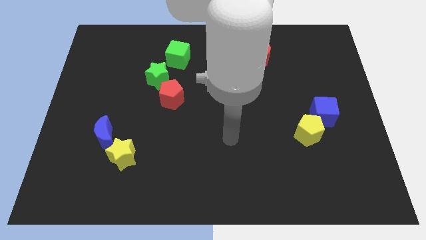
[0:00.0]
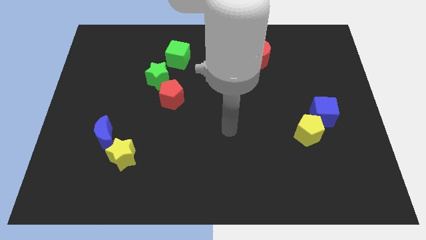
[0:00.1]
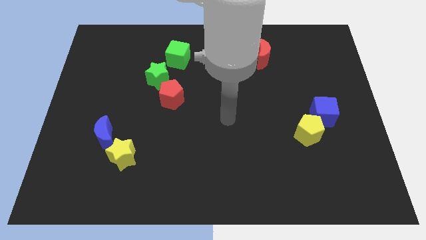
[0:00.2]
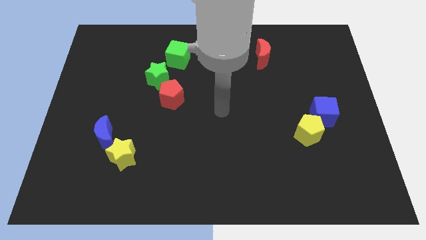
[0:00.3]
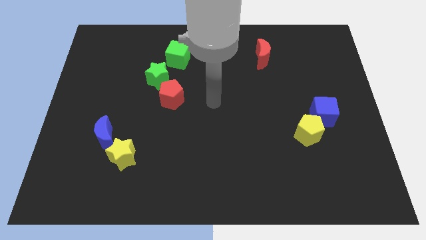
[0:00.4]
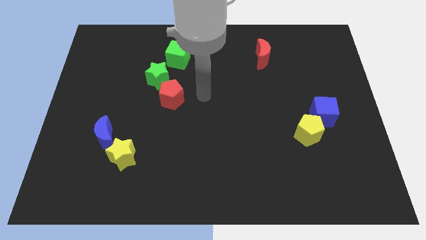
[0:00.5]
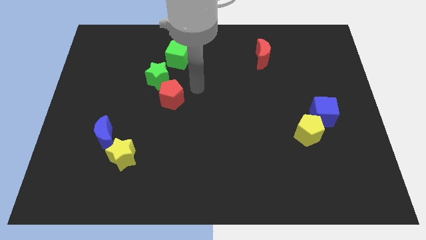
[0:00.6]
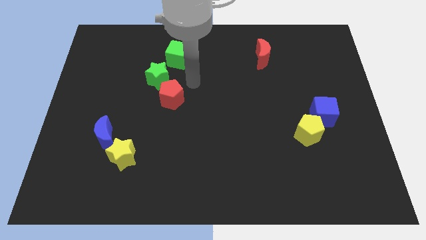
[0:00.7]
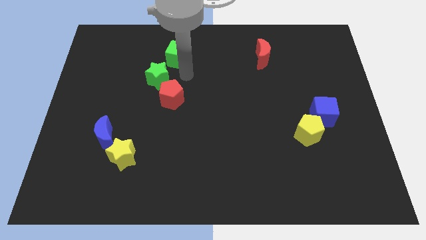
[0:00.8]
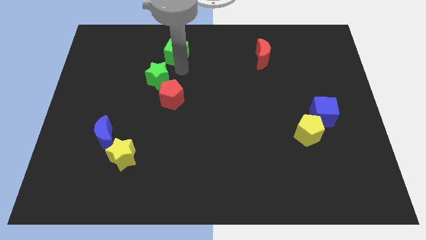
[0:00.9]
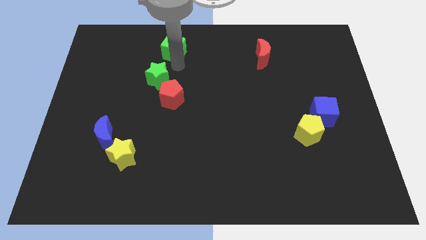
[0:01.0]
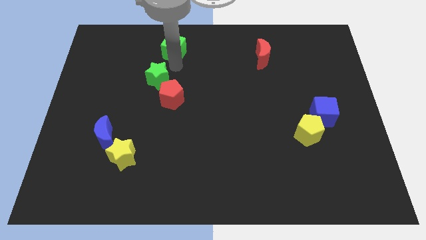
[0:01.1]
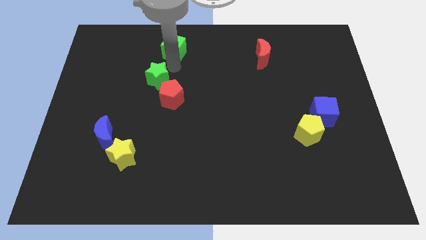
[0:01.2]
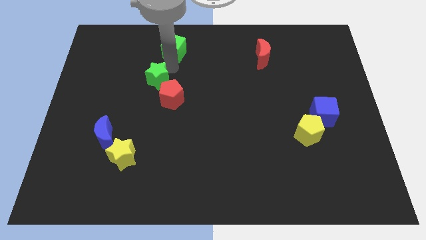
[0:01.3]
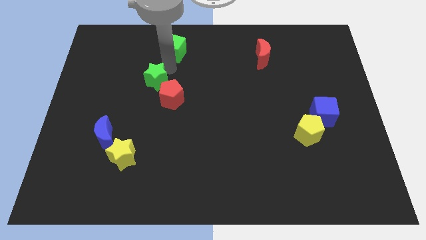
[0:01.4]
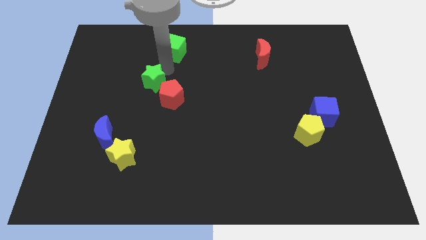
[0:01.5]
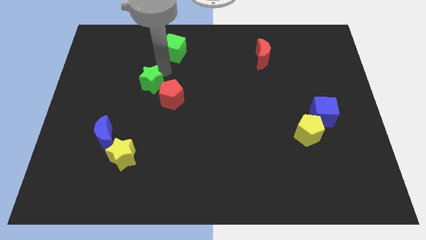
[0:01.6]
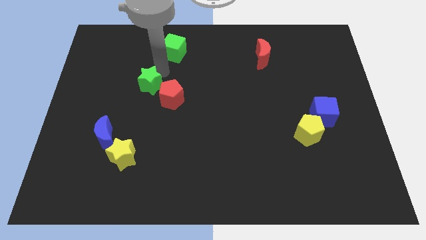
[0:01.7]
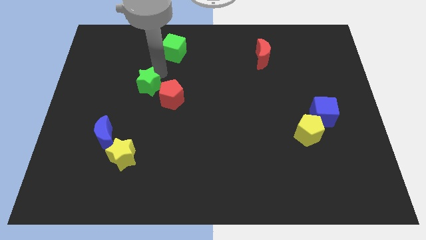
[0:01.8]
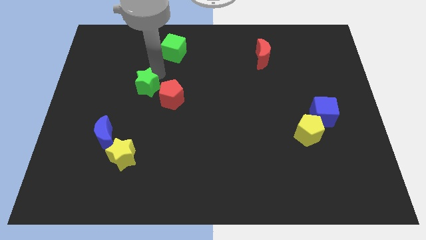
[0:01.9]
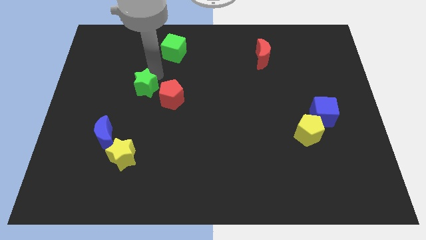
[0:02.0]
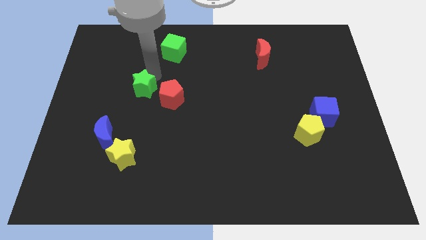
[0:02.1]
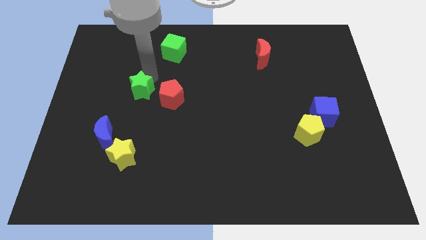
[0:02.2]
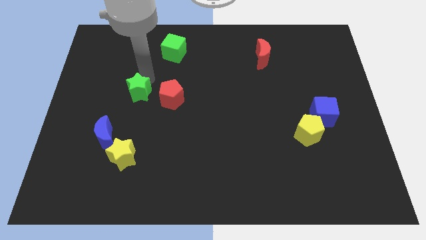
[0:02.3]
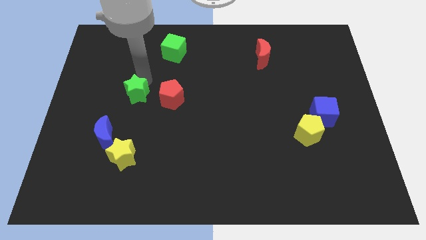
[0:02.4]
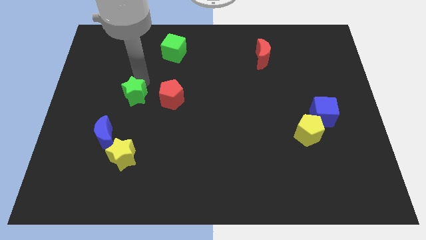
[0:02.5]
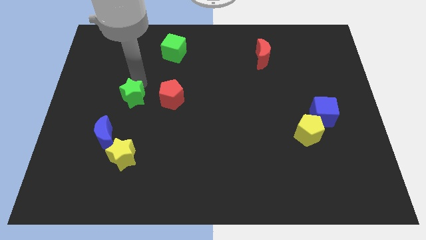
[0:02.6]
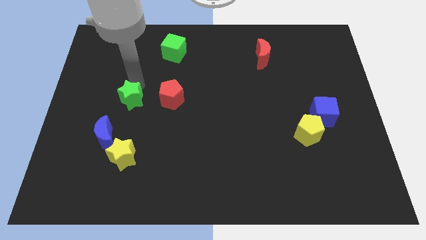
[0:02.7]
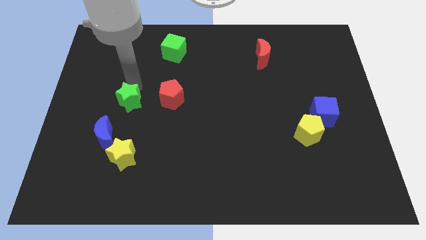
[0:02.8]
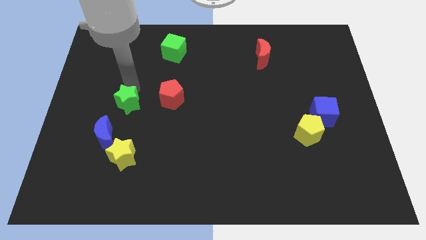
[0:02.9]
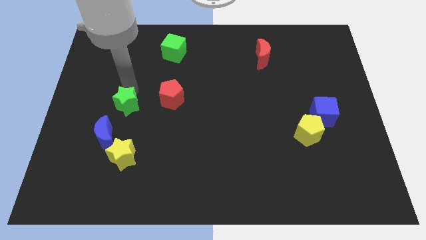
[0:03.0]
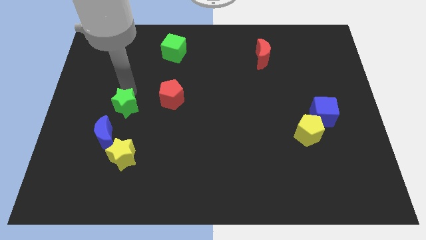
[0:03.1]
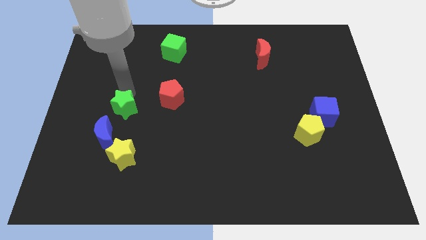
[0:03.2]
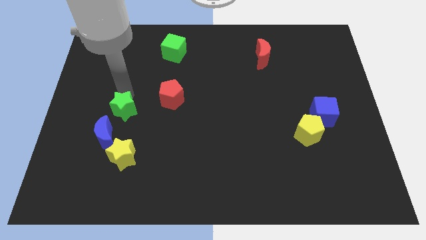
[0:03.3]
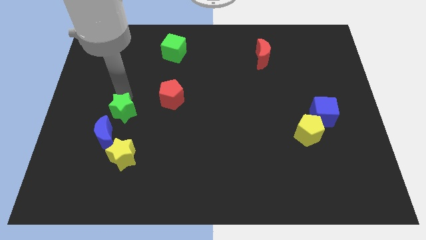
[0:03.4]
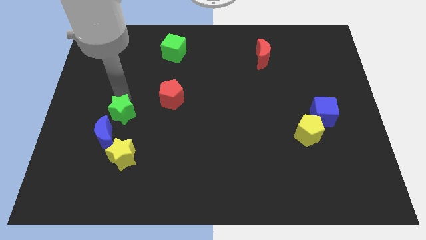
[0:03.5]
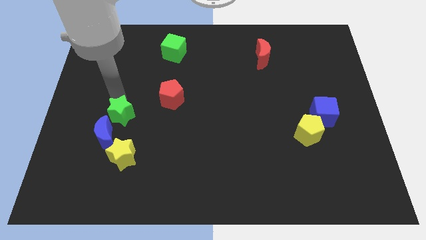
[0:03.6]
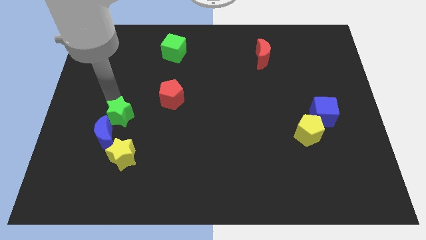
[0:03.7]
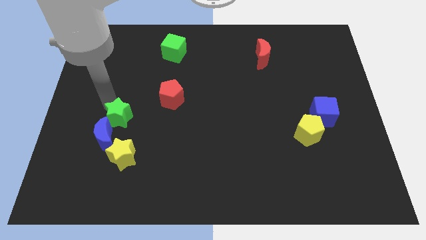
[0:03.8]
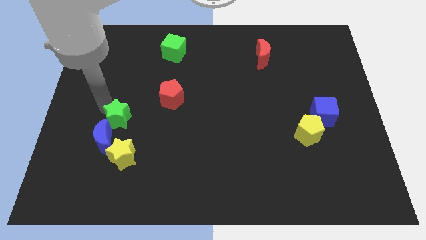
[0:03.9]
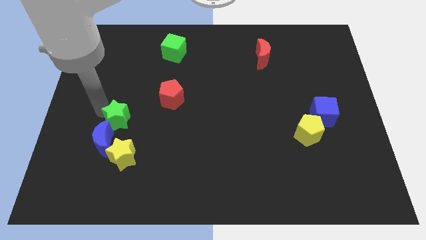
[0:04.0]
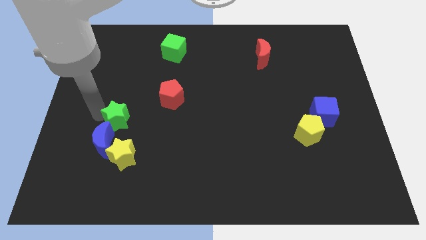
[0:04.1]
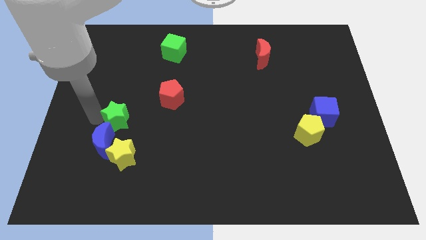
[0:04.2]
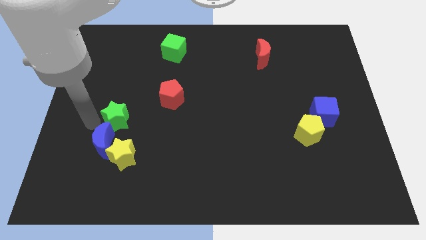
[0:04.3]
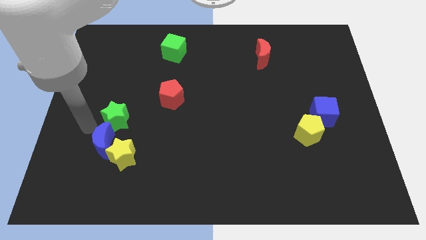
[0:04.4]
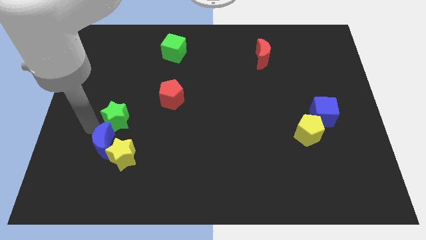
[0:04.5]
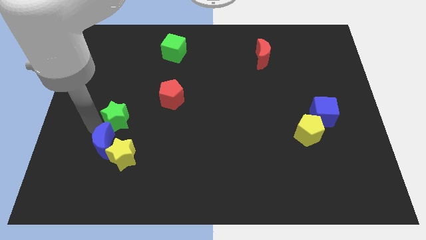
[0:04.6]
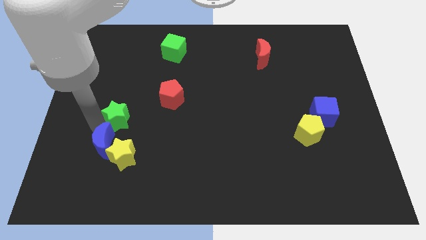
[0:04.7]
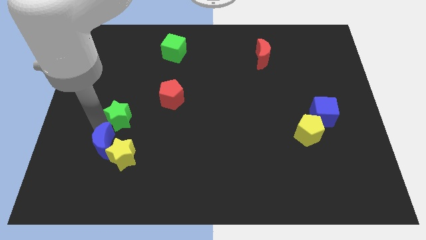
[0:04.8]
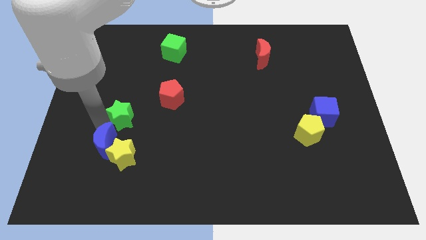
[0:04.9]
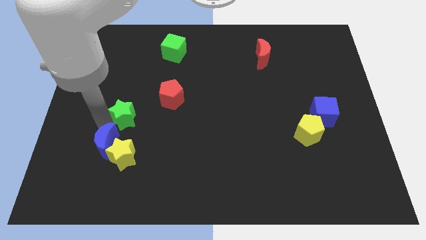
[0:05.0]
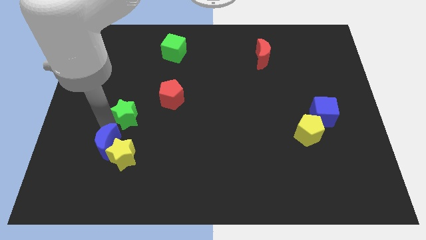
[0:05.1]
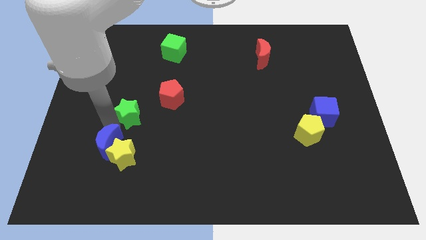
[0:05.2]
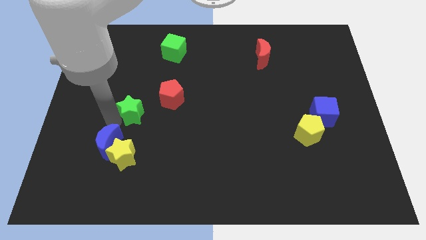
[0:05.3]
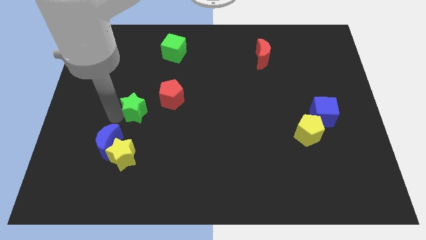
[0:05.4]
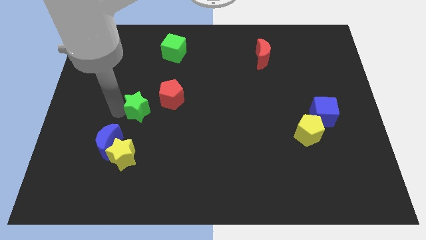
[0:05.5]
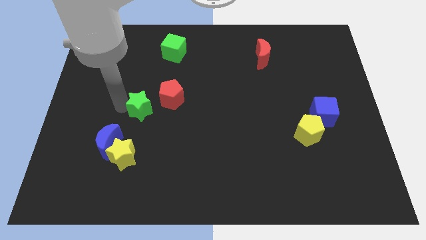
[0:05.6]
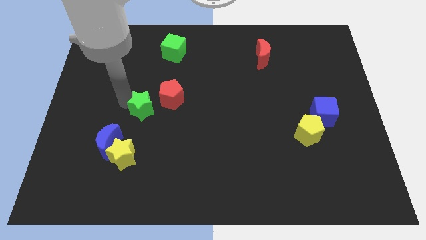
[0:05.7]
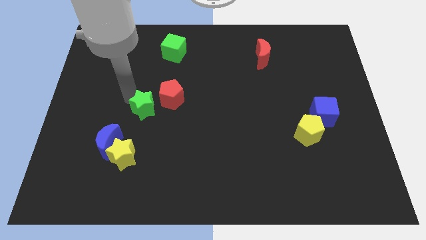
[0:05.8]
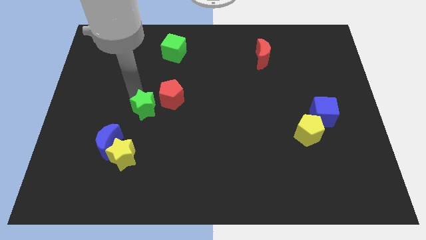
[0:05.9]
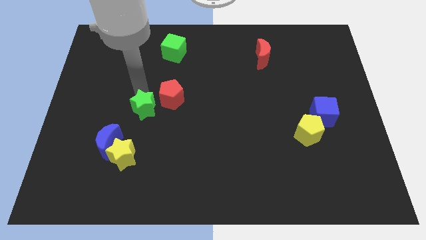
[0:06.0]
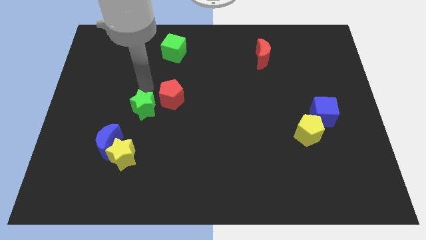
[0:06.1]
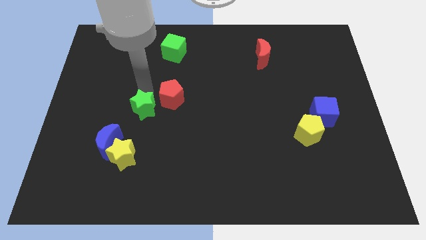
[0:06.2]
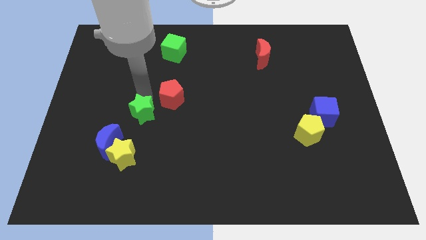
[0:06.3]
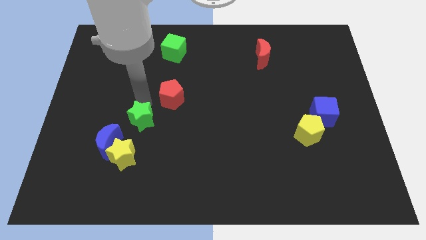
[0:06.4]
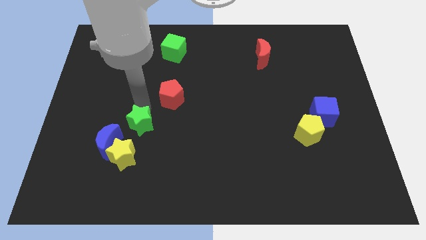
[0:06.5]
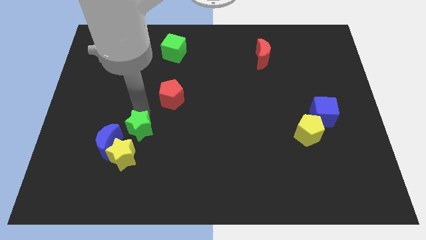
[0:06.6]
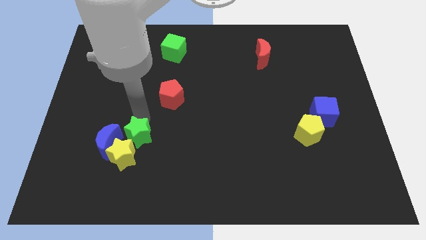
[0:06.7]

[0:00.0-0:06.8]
push the green star next to the yellow star
